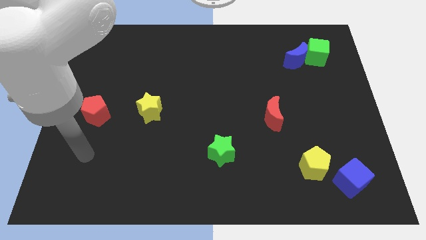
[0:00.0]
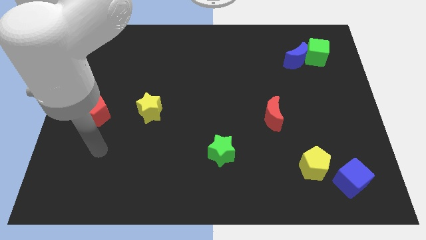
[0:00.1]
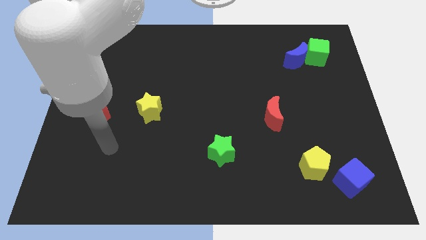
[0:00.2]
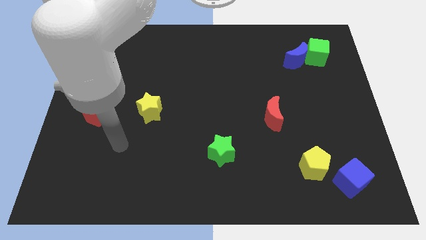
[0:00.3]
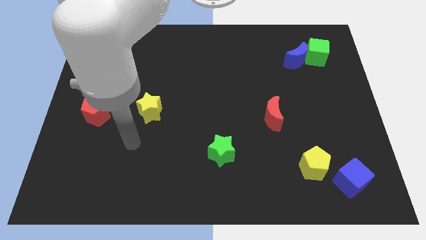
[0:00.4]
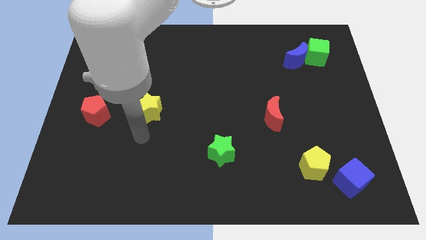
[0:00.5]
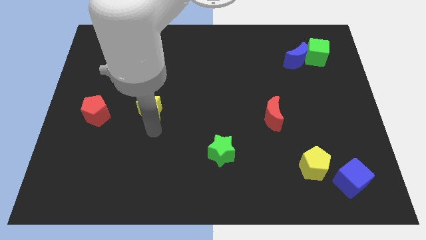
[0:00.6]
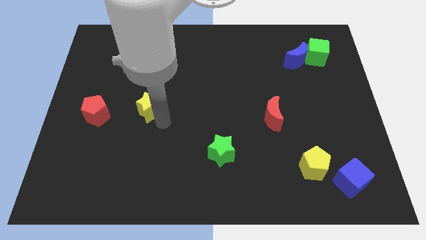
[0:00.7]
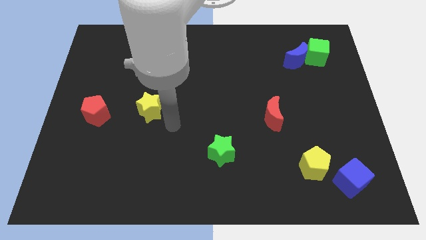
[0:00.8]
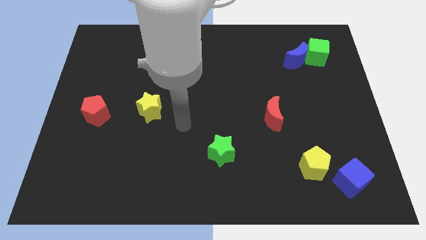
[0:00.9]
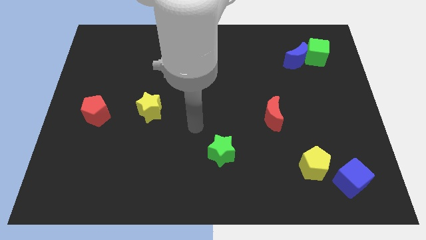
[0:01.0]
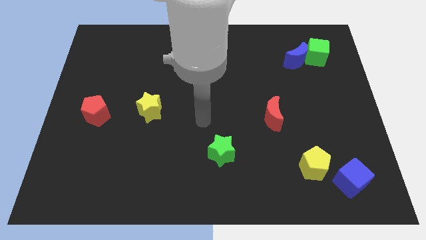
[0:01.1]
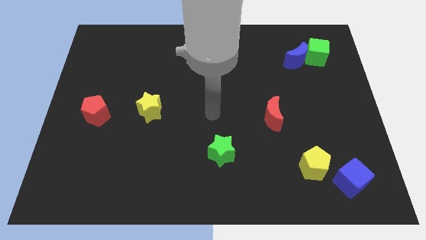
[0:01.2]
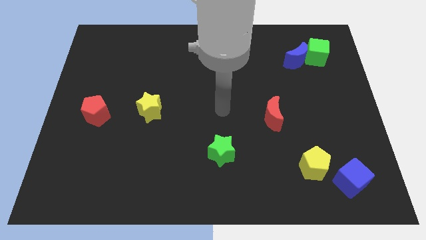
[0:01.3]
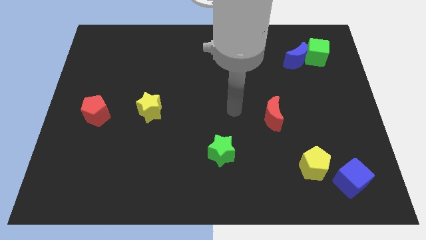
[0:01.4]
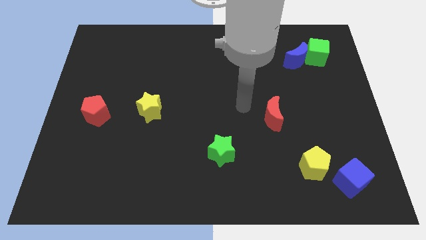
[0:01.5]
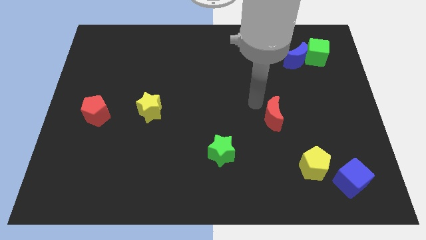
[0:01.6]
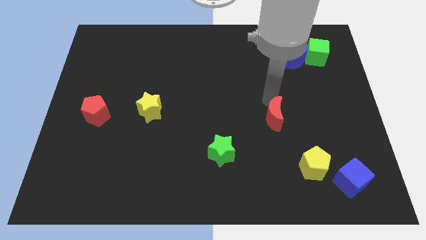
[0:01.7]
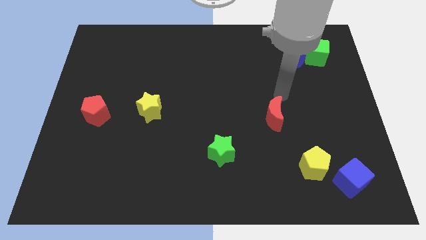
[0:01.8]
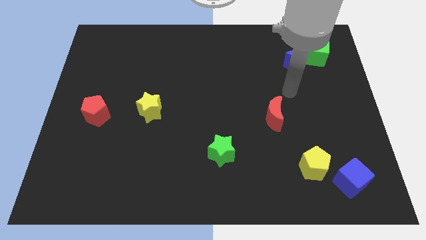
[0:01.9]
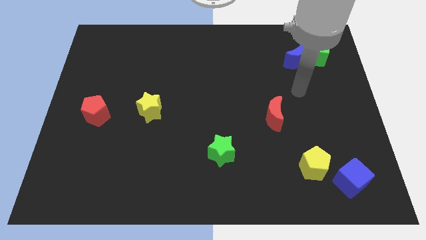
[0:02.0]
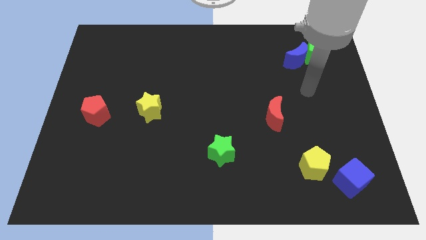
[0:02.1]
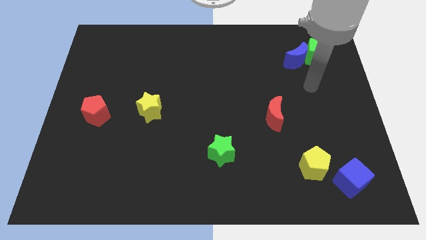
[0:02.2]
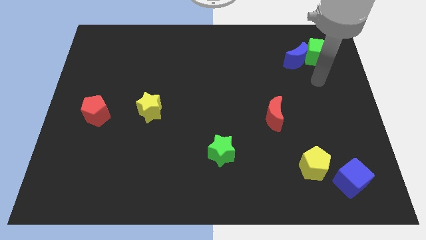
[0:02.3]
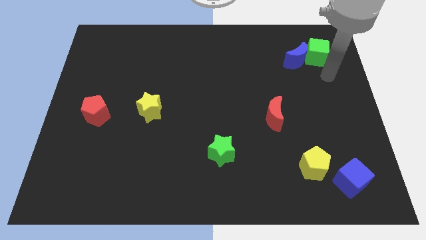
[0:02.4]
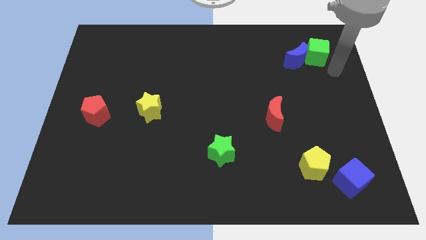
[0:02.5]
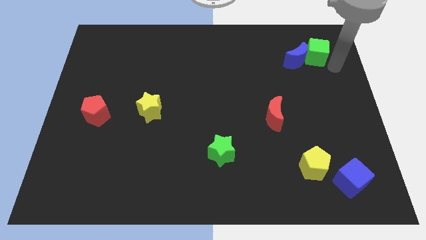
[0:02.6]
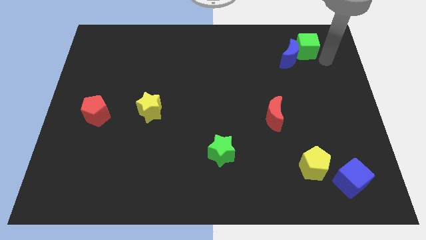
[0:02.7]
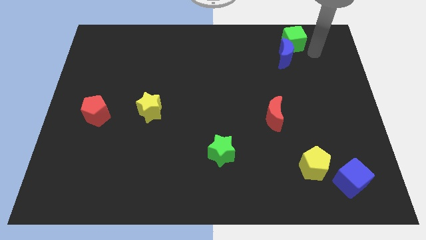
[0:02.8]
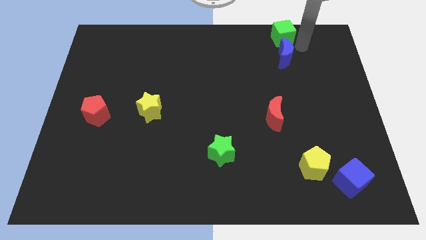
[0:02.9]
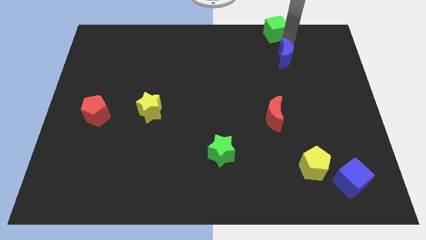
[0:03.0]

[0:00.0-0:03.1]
move the blue moon away from the green cube

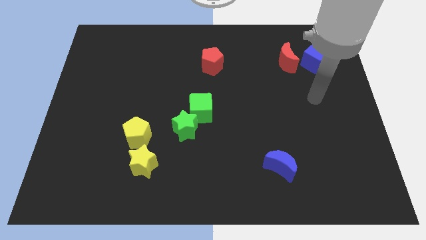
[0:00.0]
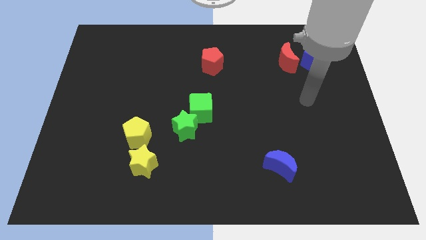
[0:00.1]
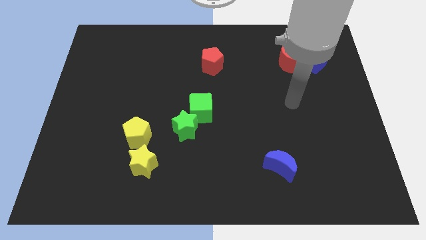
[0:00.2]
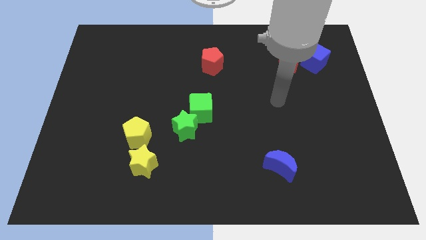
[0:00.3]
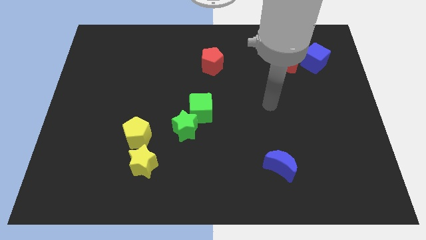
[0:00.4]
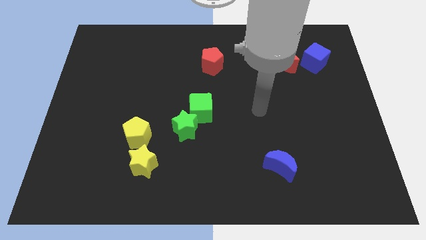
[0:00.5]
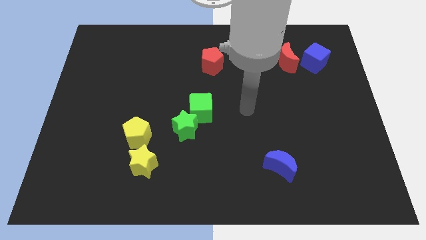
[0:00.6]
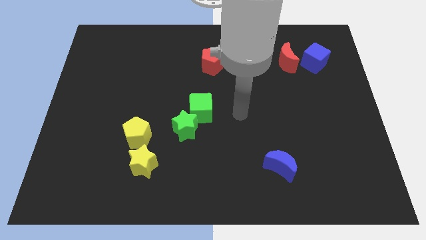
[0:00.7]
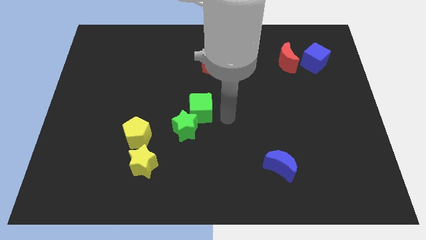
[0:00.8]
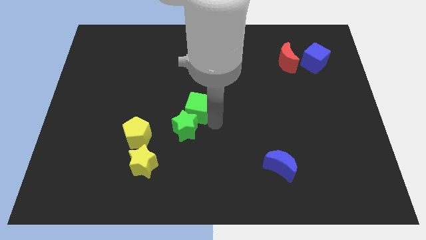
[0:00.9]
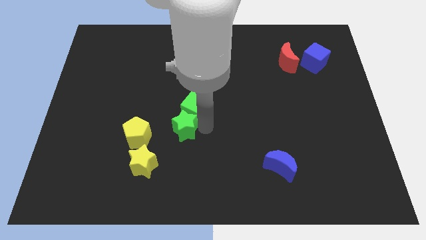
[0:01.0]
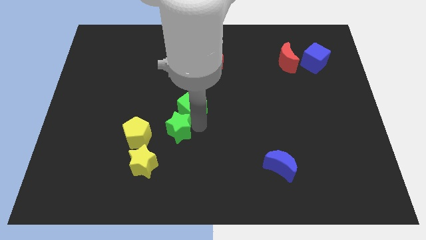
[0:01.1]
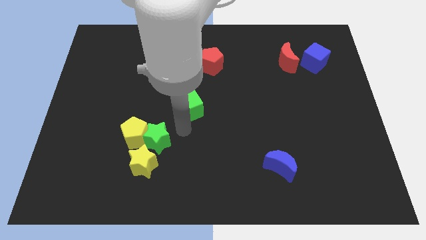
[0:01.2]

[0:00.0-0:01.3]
move the green cube away from the green star

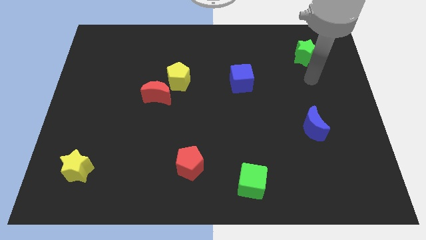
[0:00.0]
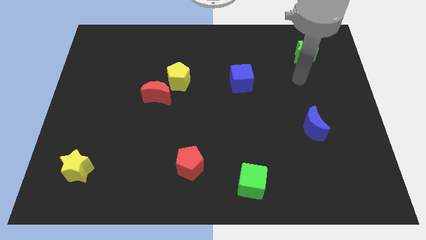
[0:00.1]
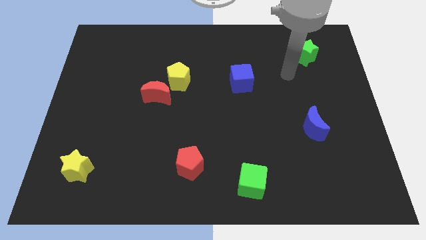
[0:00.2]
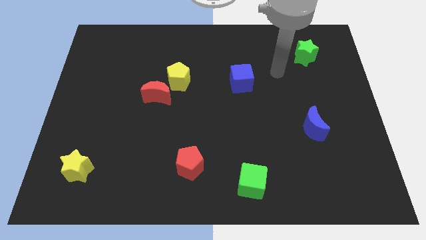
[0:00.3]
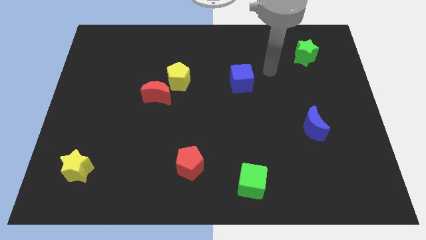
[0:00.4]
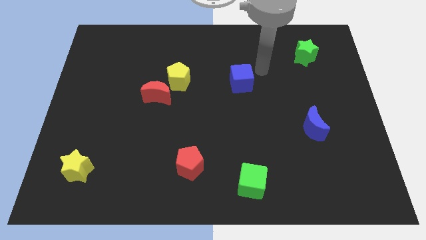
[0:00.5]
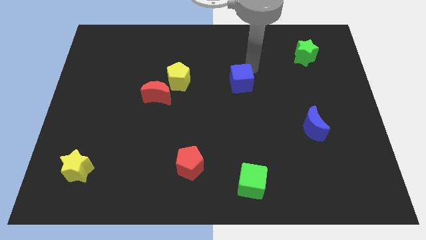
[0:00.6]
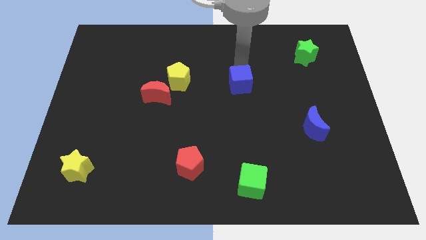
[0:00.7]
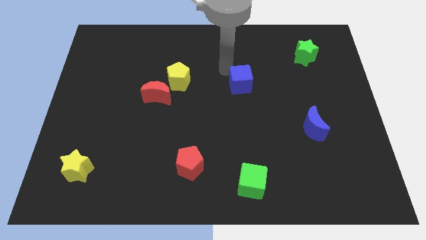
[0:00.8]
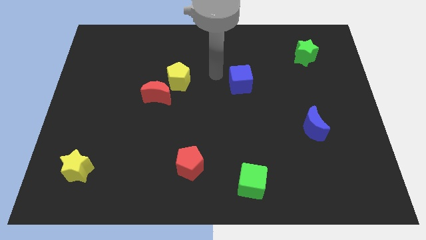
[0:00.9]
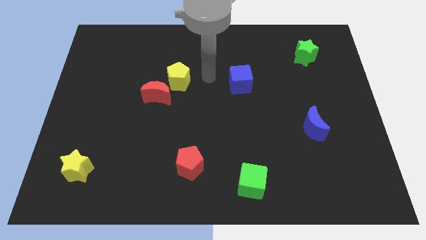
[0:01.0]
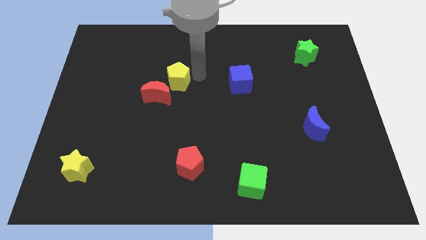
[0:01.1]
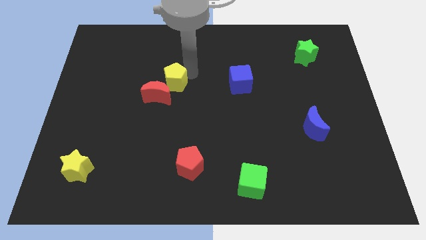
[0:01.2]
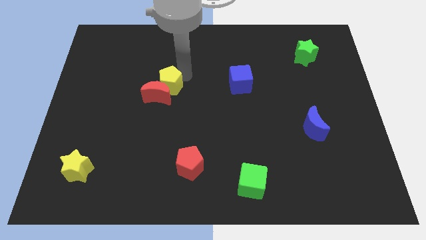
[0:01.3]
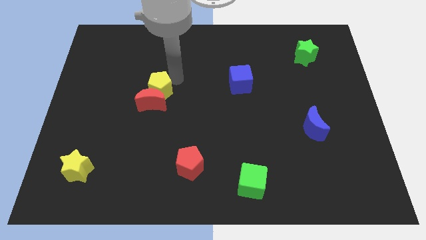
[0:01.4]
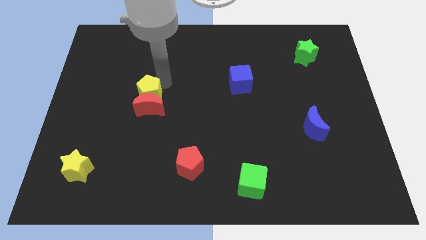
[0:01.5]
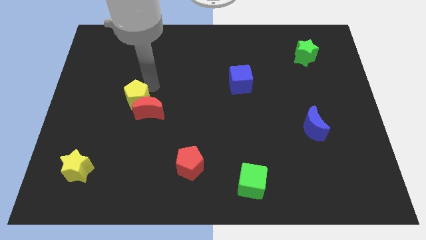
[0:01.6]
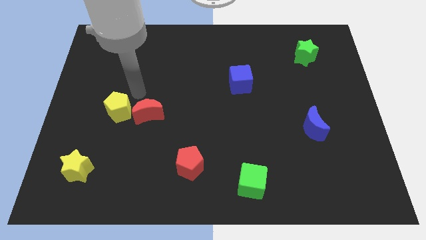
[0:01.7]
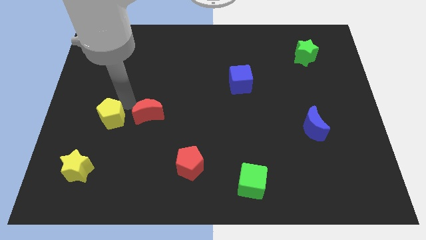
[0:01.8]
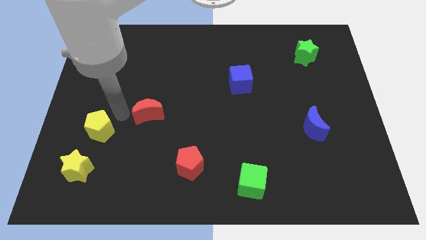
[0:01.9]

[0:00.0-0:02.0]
move the red moon away from the yellow pentagon

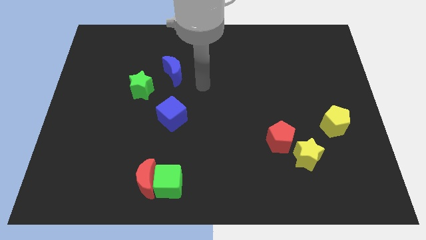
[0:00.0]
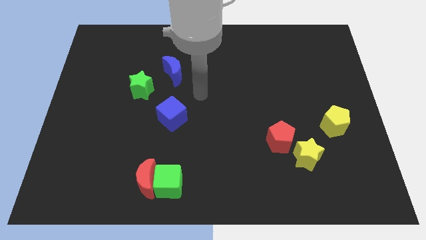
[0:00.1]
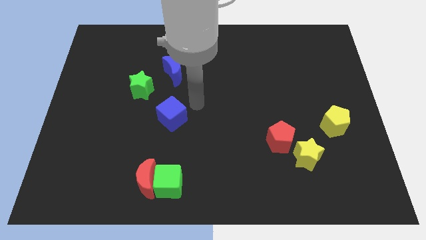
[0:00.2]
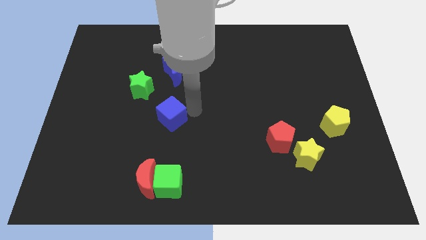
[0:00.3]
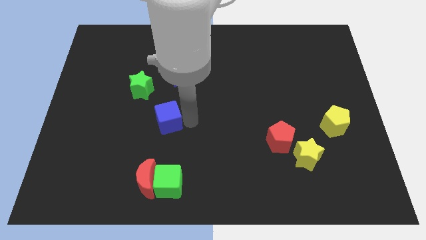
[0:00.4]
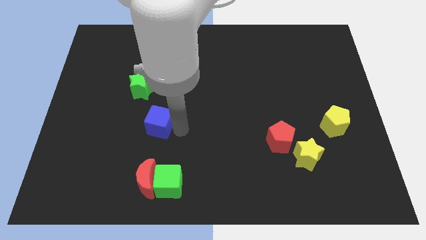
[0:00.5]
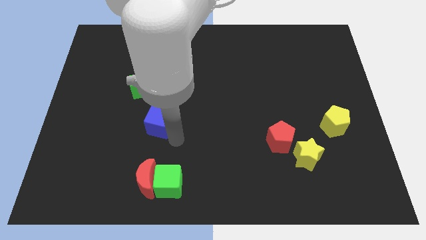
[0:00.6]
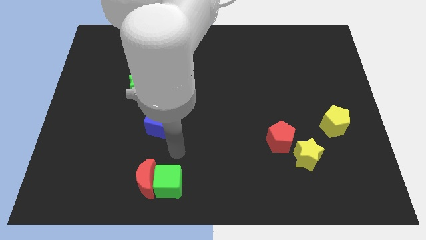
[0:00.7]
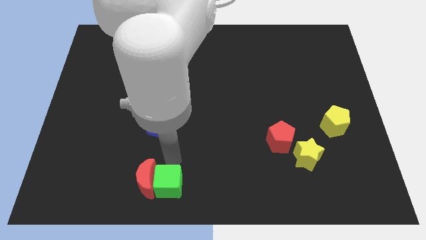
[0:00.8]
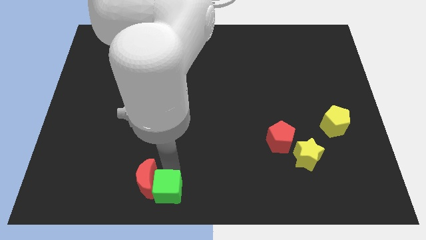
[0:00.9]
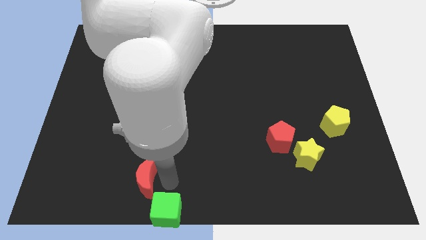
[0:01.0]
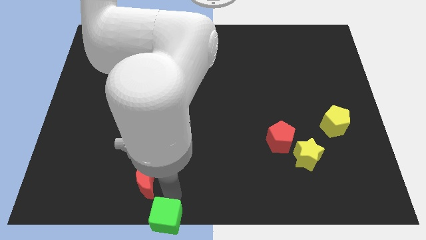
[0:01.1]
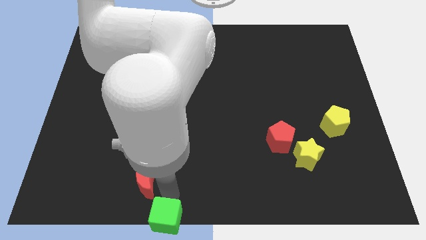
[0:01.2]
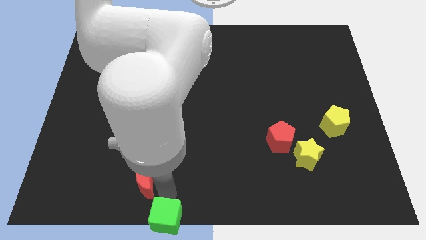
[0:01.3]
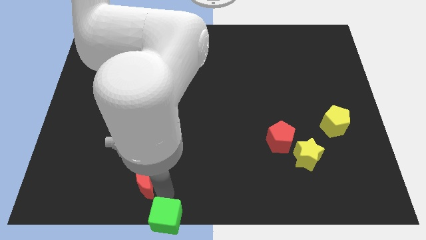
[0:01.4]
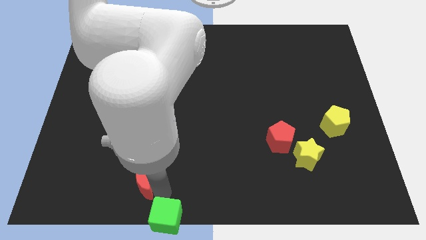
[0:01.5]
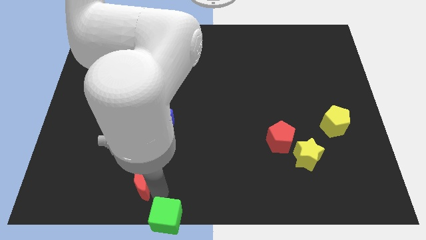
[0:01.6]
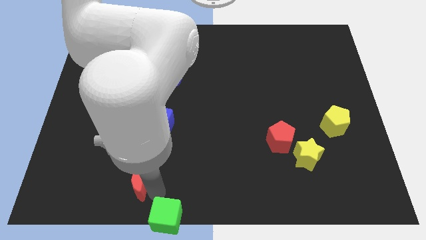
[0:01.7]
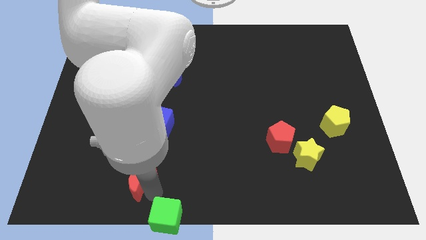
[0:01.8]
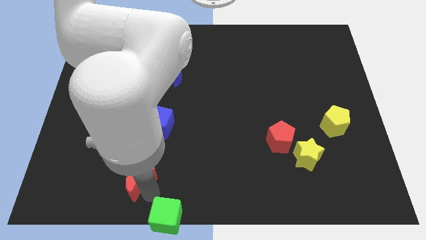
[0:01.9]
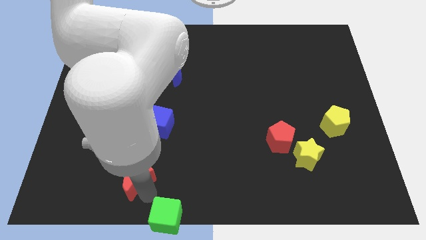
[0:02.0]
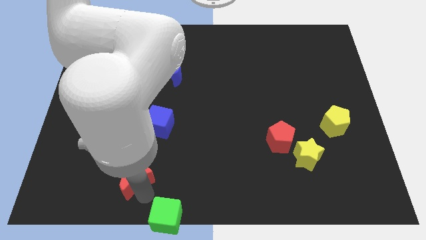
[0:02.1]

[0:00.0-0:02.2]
pull the red moon apart from the green cube

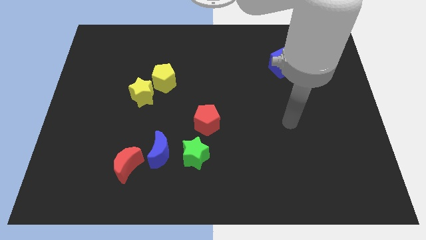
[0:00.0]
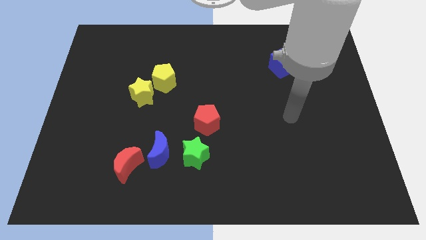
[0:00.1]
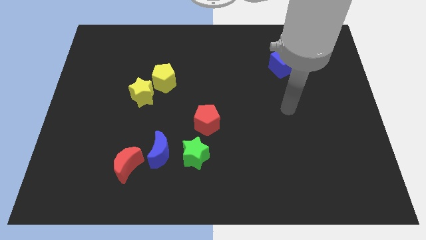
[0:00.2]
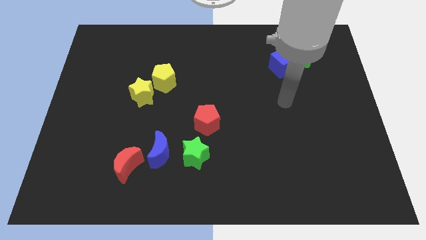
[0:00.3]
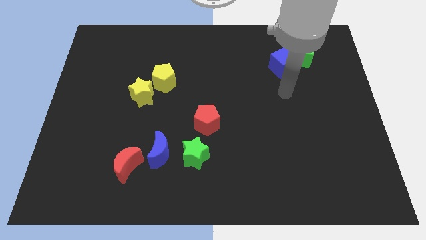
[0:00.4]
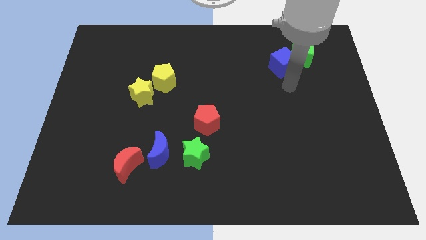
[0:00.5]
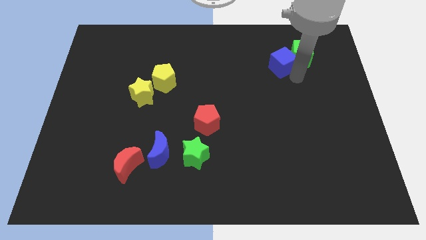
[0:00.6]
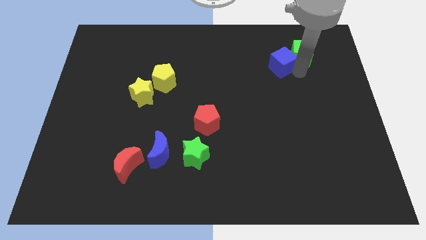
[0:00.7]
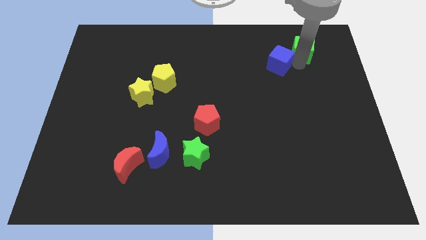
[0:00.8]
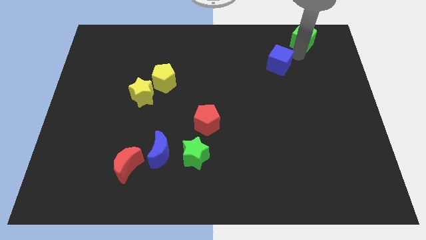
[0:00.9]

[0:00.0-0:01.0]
move the blue cube away from the green cube
